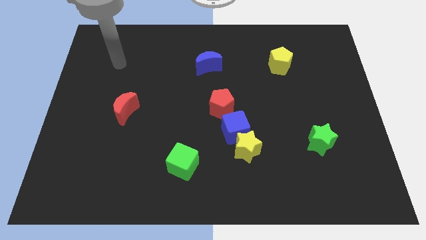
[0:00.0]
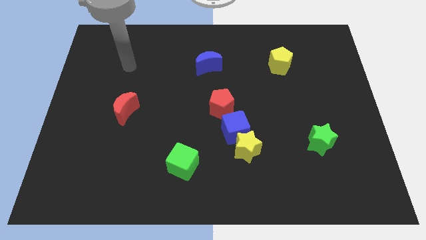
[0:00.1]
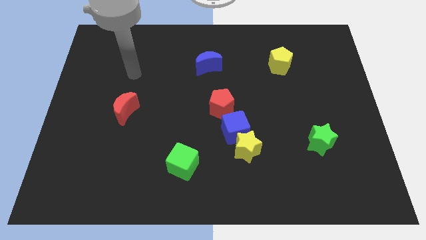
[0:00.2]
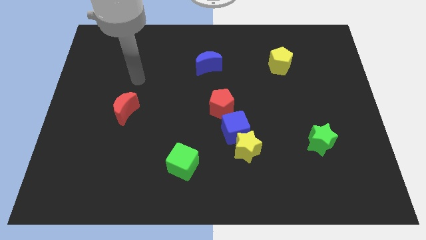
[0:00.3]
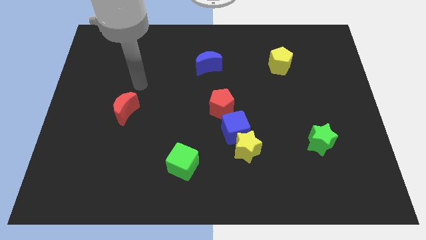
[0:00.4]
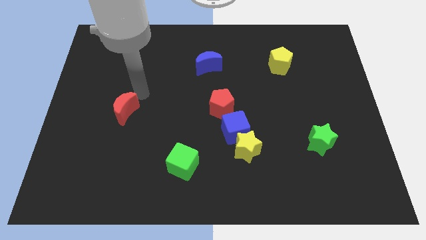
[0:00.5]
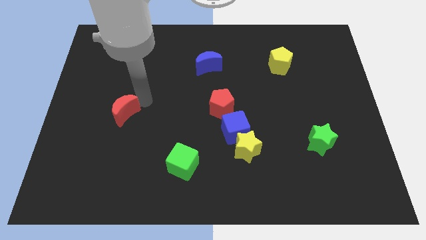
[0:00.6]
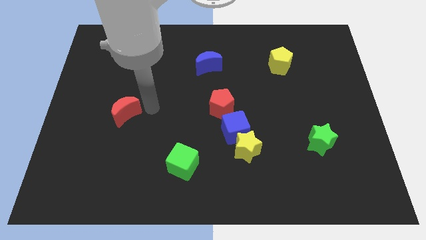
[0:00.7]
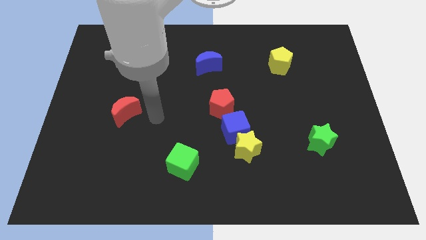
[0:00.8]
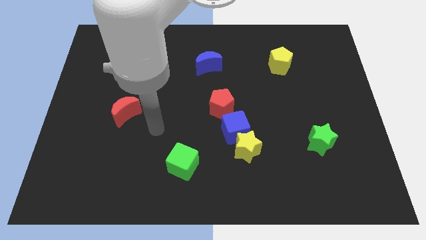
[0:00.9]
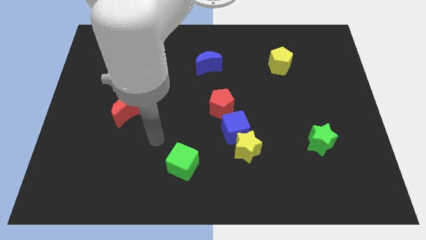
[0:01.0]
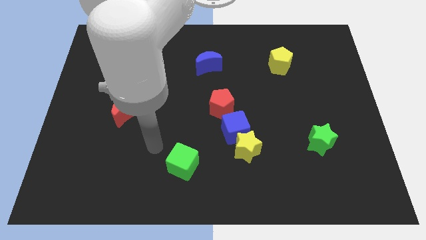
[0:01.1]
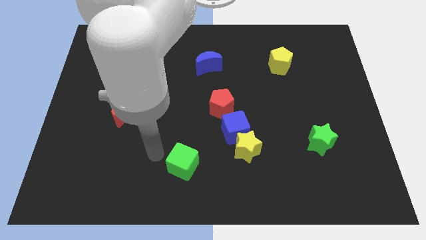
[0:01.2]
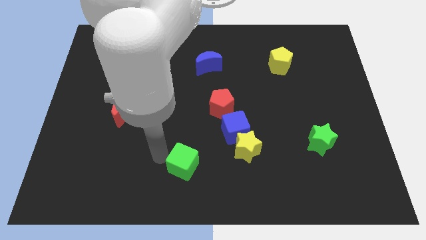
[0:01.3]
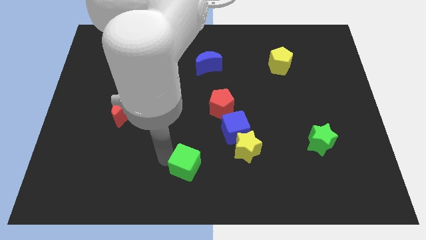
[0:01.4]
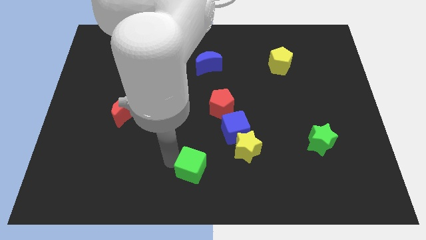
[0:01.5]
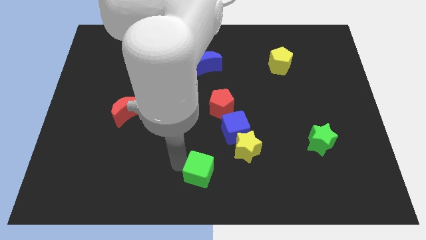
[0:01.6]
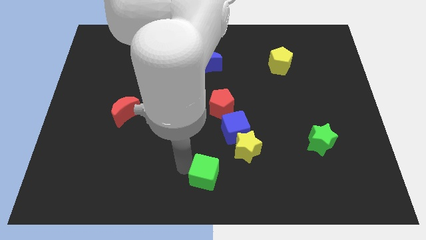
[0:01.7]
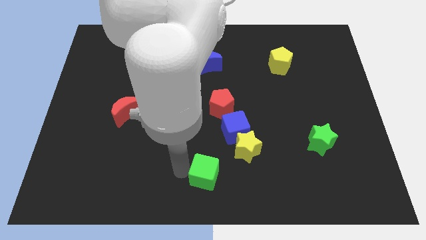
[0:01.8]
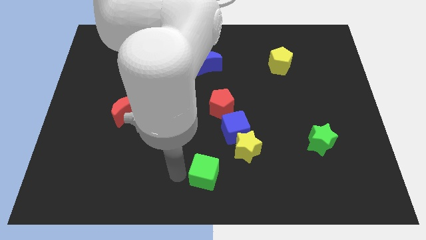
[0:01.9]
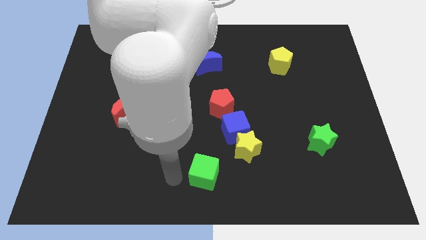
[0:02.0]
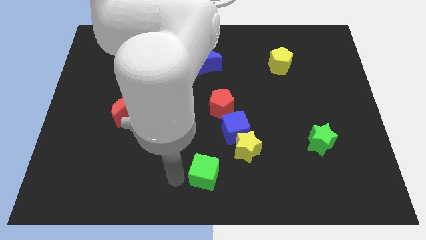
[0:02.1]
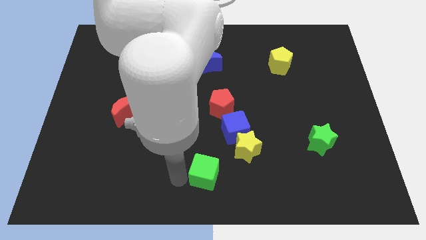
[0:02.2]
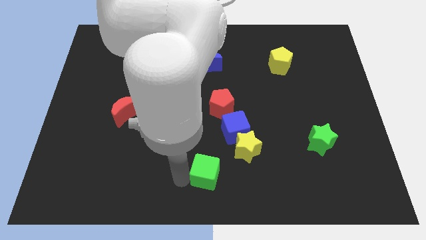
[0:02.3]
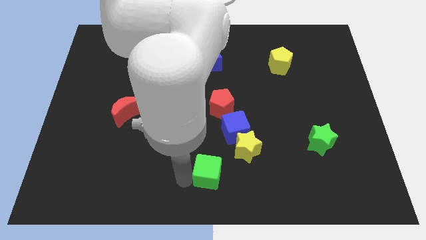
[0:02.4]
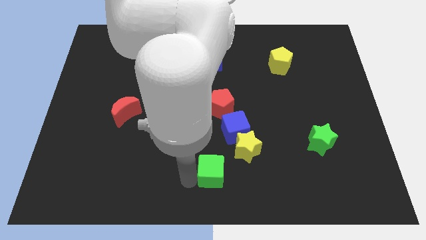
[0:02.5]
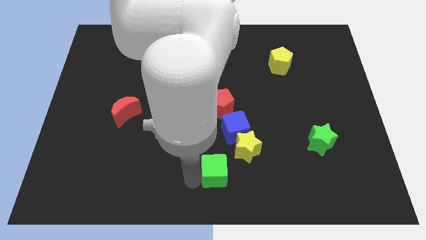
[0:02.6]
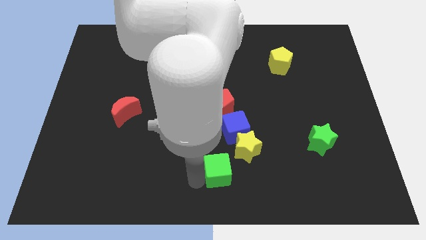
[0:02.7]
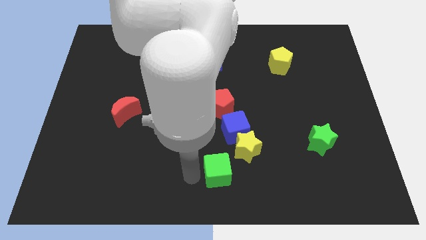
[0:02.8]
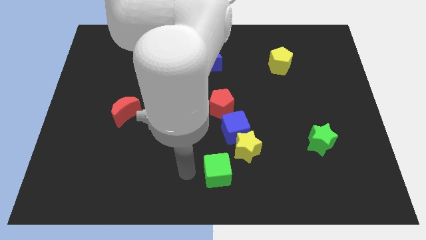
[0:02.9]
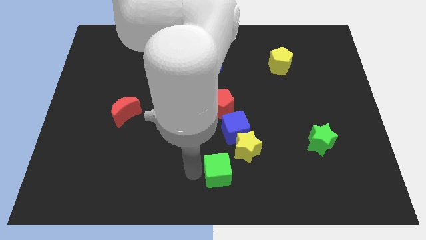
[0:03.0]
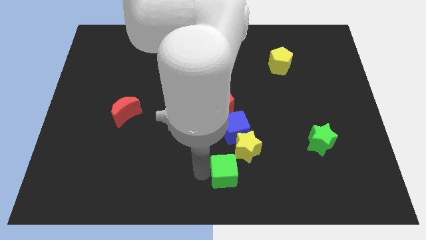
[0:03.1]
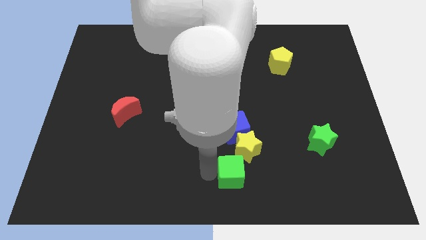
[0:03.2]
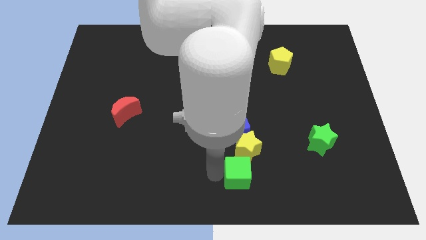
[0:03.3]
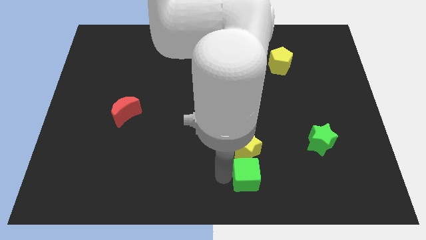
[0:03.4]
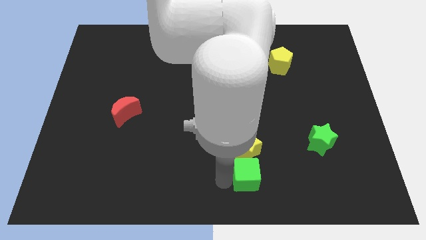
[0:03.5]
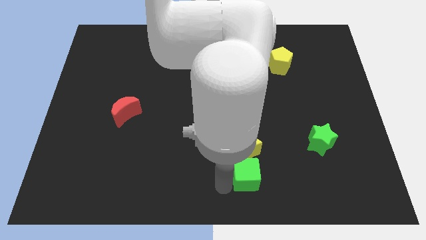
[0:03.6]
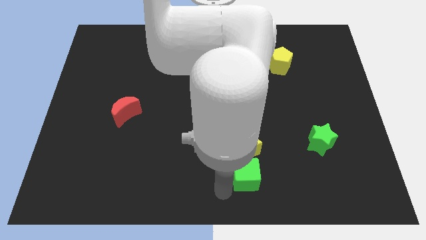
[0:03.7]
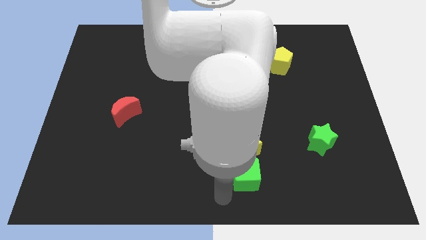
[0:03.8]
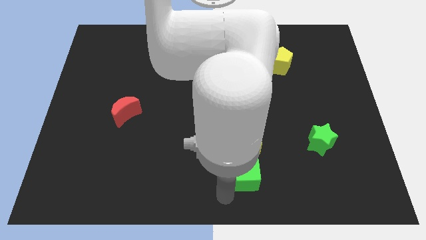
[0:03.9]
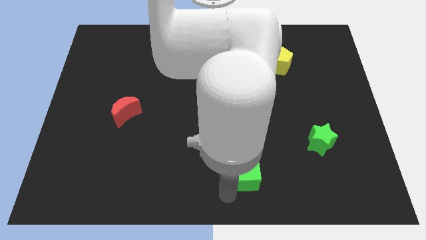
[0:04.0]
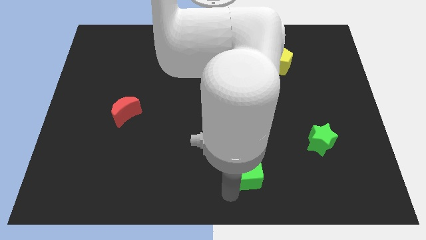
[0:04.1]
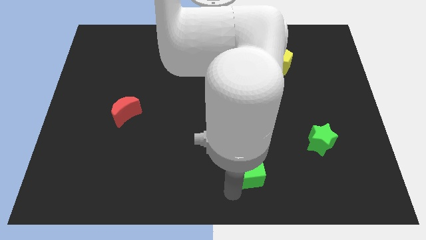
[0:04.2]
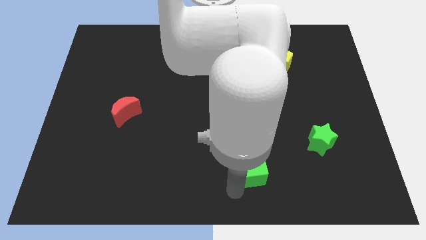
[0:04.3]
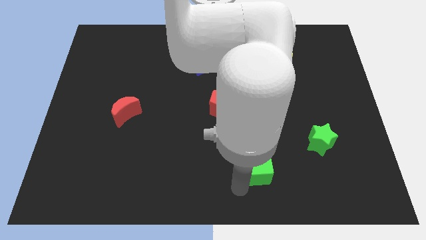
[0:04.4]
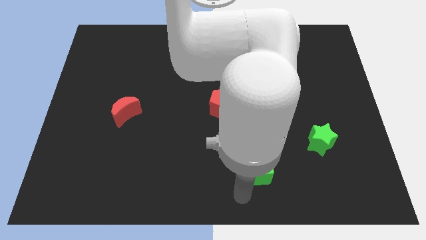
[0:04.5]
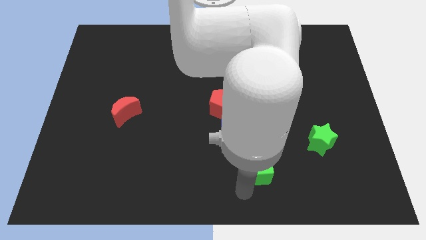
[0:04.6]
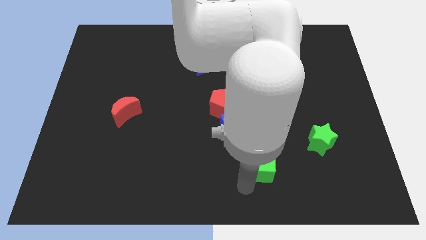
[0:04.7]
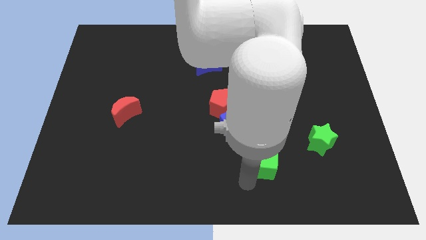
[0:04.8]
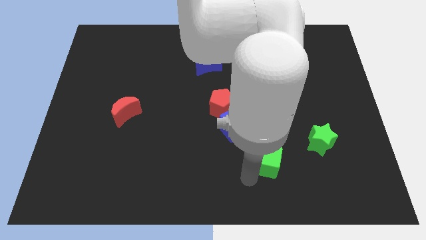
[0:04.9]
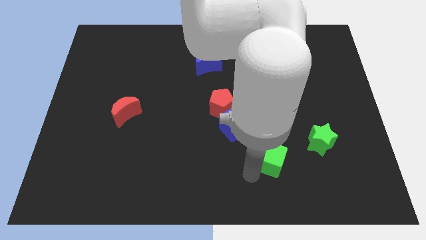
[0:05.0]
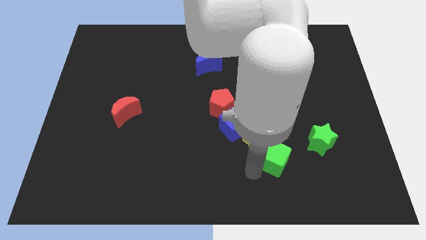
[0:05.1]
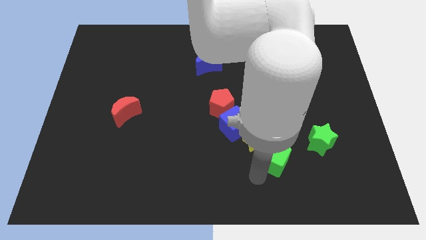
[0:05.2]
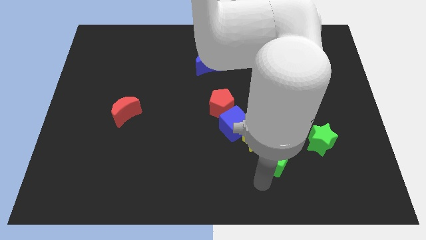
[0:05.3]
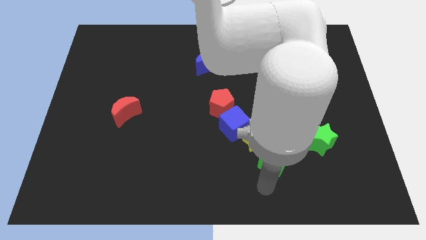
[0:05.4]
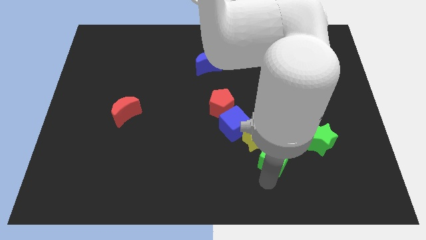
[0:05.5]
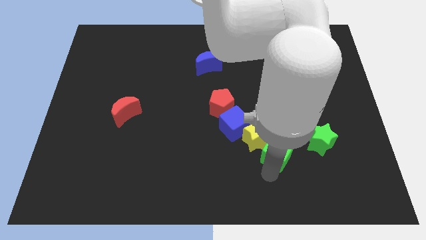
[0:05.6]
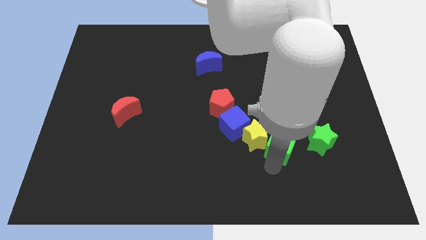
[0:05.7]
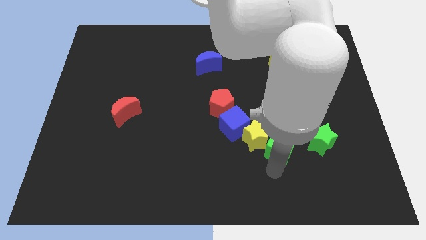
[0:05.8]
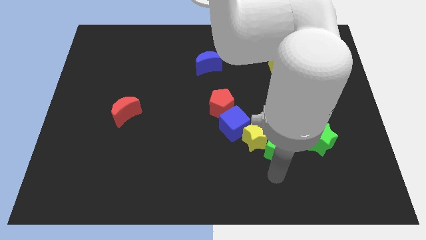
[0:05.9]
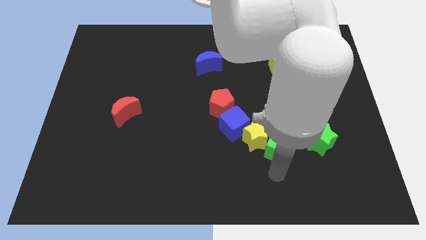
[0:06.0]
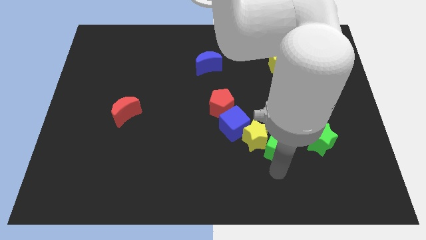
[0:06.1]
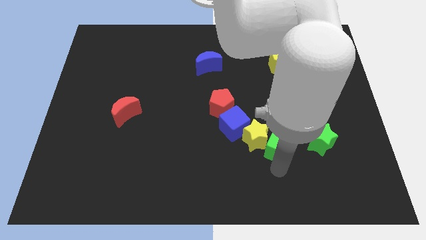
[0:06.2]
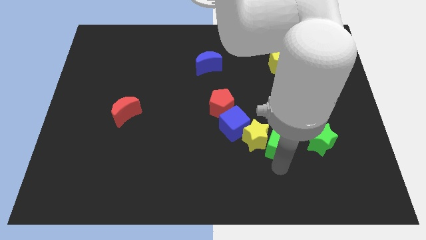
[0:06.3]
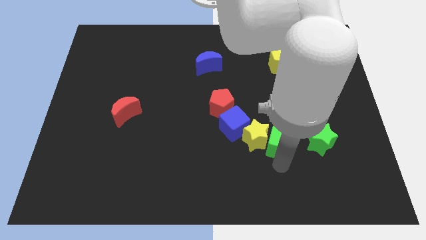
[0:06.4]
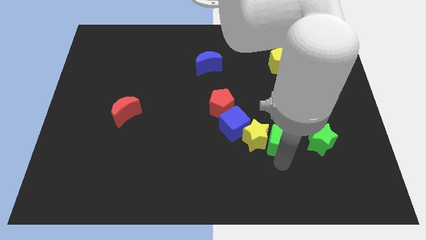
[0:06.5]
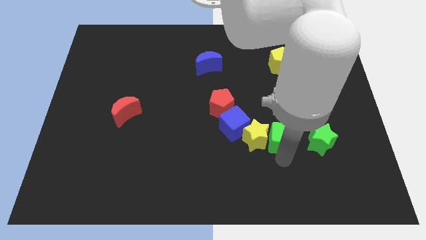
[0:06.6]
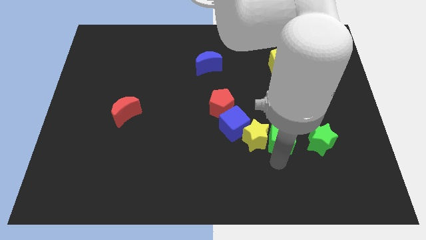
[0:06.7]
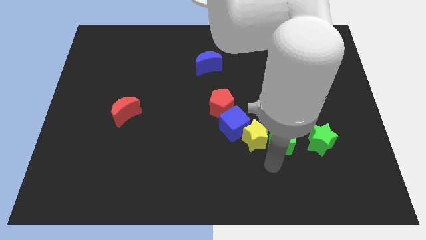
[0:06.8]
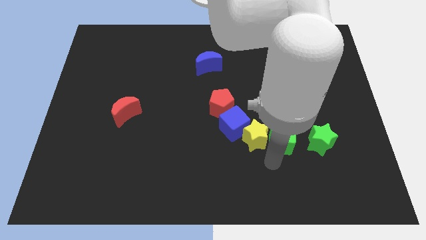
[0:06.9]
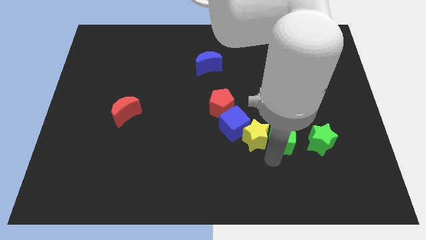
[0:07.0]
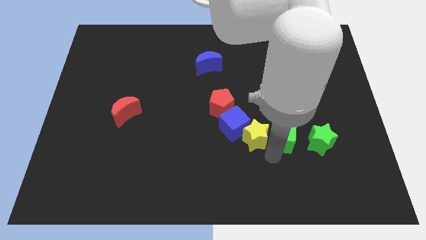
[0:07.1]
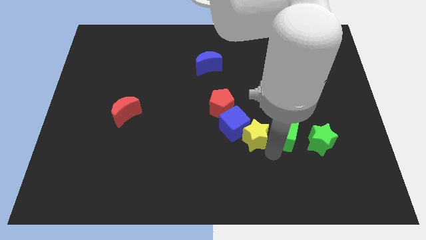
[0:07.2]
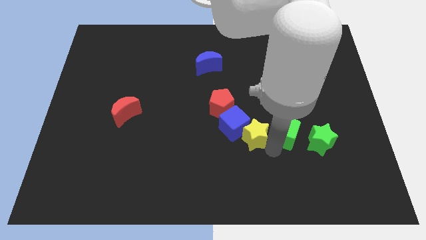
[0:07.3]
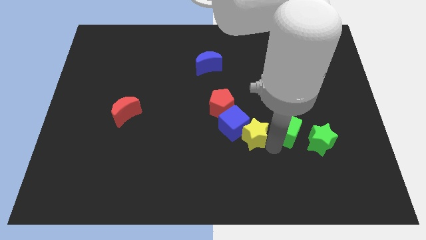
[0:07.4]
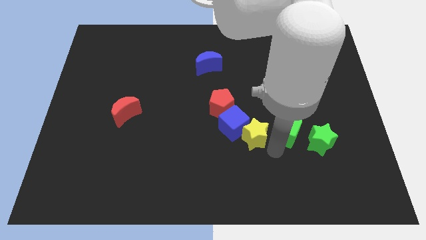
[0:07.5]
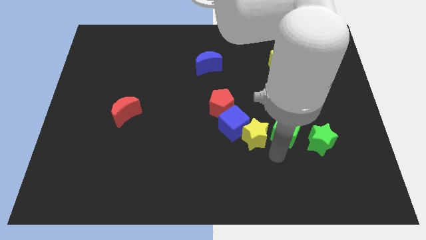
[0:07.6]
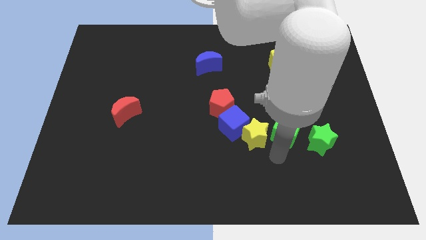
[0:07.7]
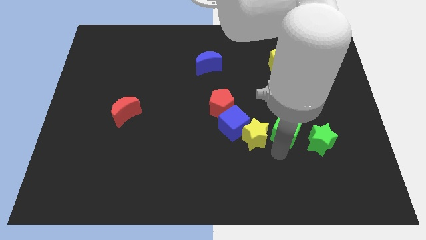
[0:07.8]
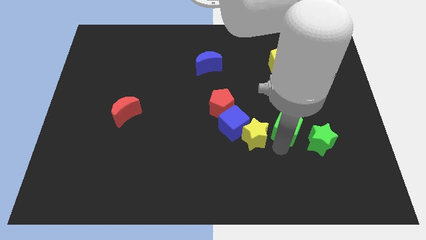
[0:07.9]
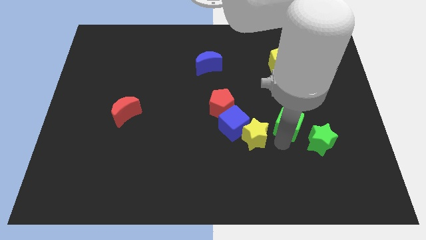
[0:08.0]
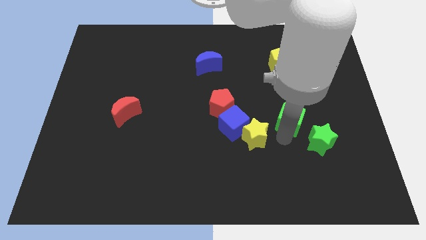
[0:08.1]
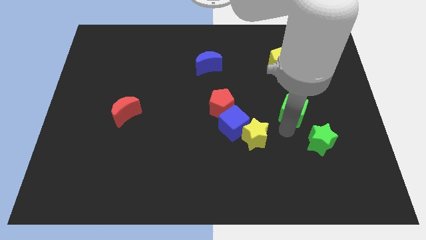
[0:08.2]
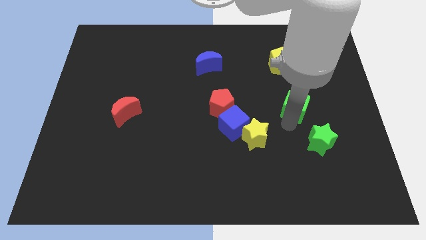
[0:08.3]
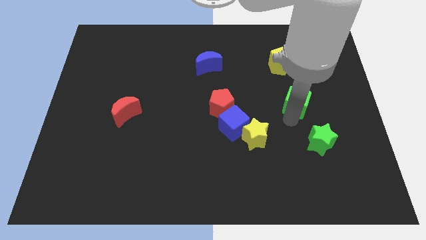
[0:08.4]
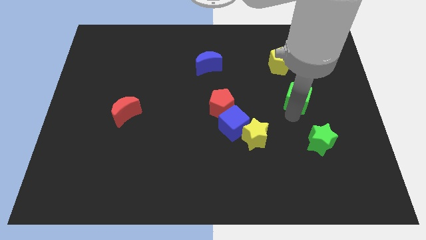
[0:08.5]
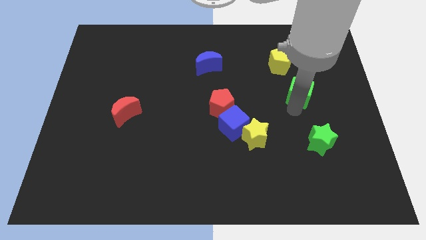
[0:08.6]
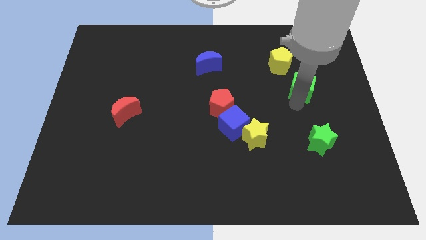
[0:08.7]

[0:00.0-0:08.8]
push the green cube to the bottom right of the yellow pentagon
